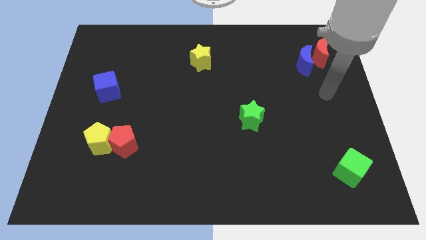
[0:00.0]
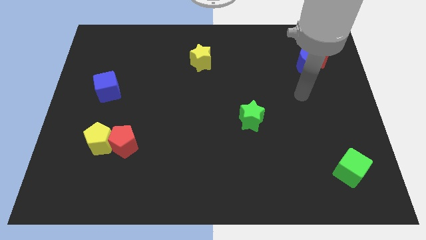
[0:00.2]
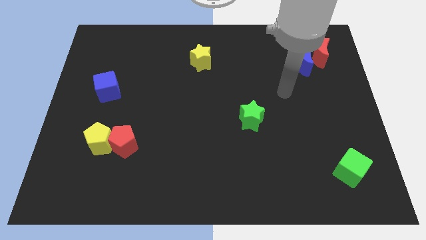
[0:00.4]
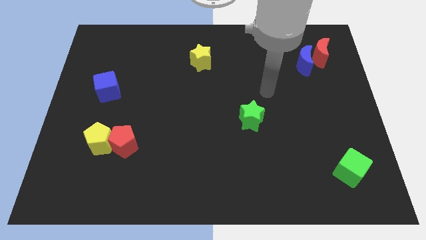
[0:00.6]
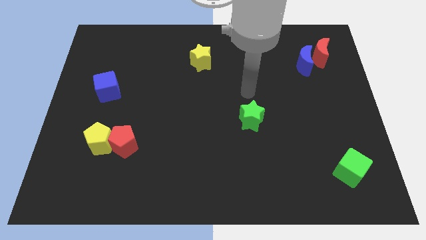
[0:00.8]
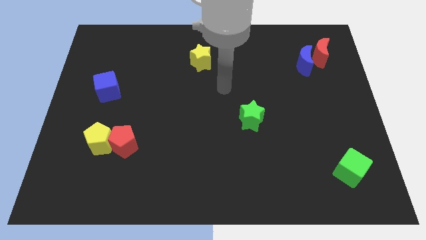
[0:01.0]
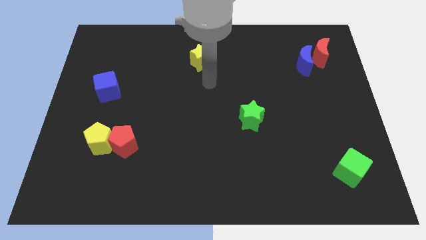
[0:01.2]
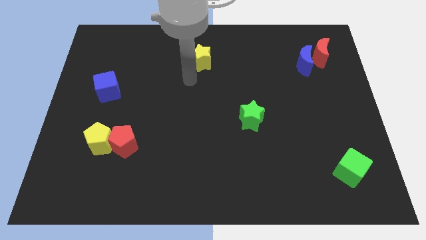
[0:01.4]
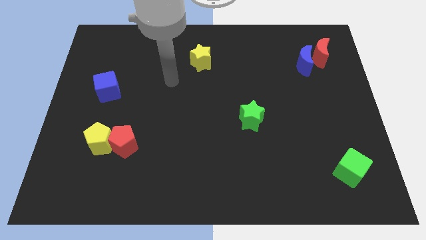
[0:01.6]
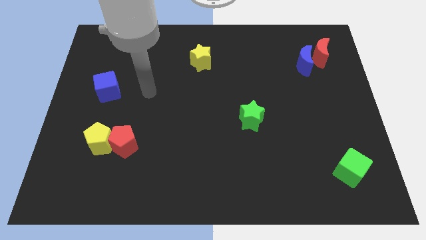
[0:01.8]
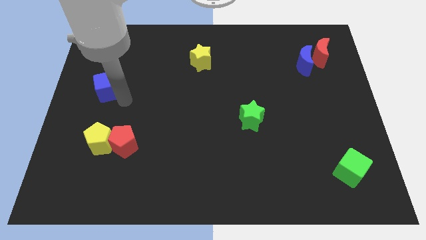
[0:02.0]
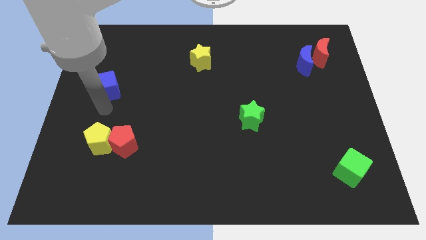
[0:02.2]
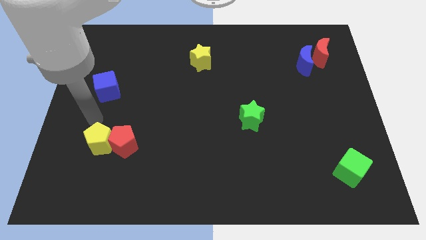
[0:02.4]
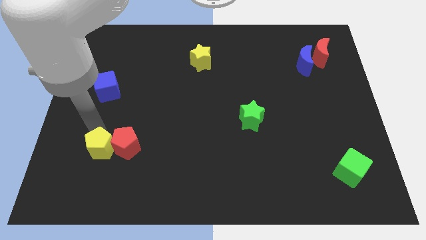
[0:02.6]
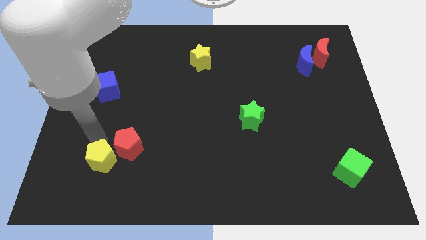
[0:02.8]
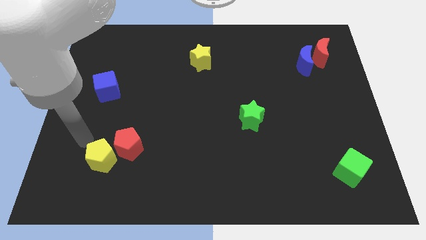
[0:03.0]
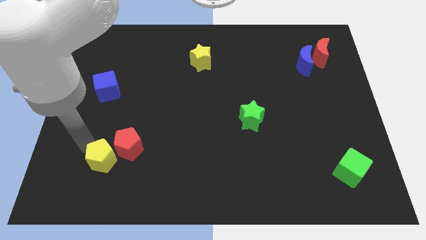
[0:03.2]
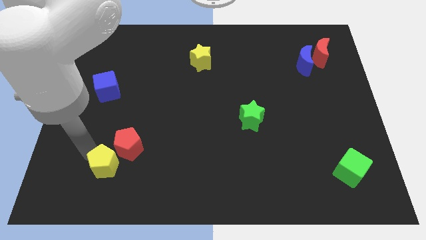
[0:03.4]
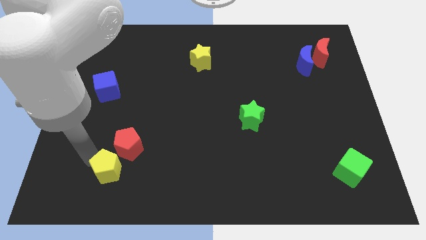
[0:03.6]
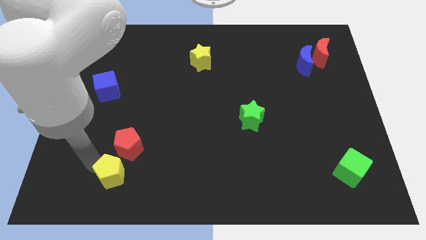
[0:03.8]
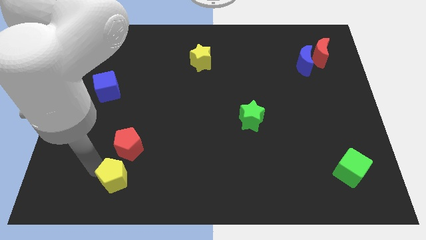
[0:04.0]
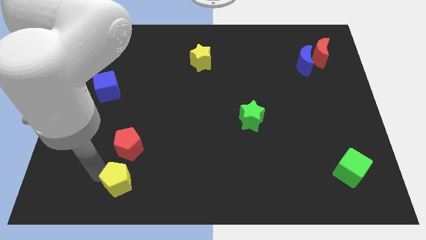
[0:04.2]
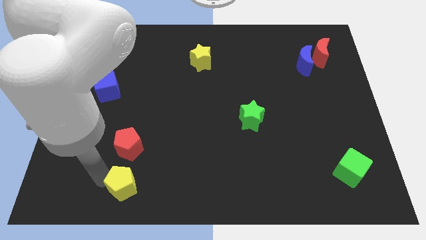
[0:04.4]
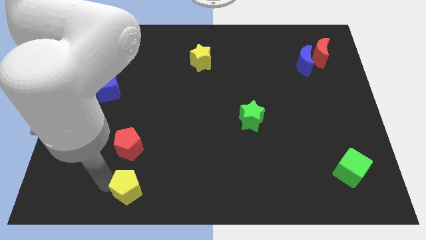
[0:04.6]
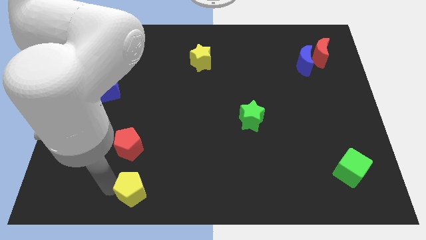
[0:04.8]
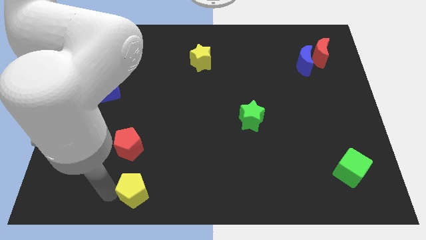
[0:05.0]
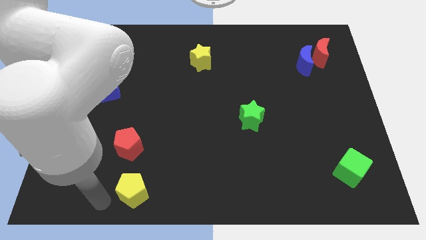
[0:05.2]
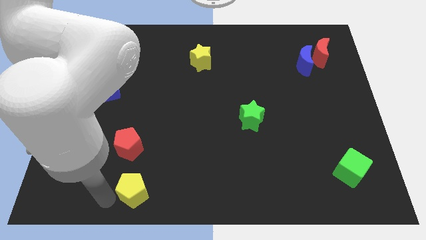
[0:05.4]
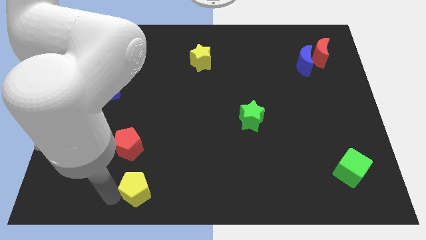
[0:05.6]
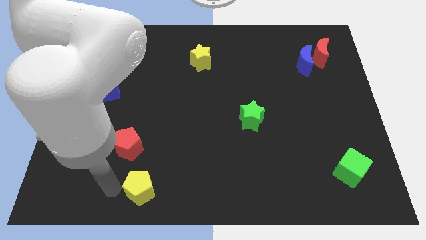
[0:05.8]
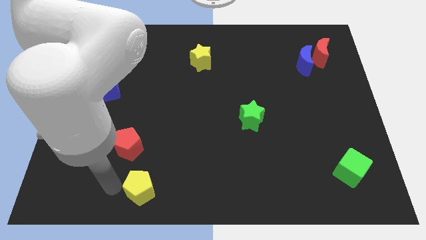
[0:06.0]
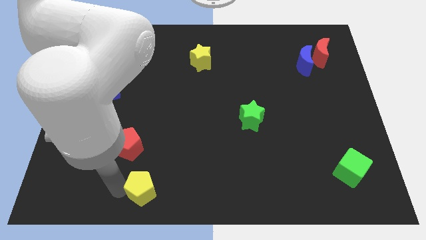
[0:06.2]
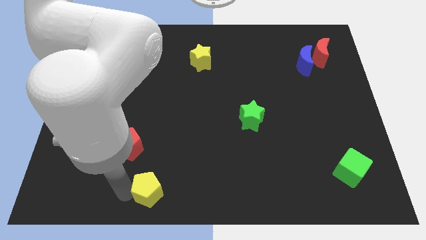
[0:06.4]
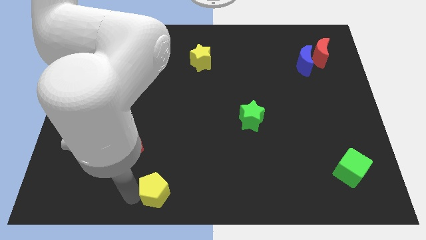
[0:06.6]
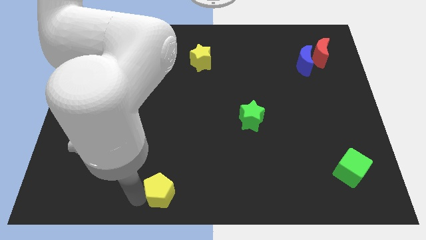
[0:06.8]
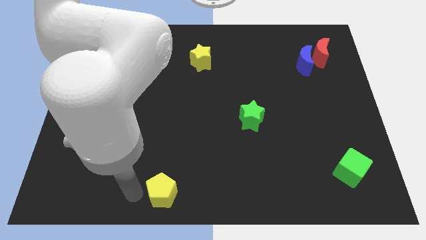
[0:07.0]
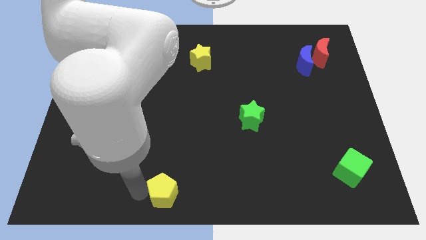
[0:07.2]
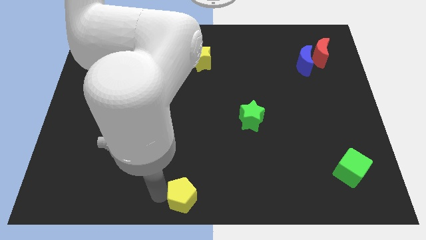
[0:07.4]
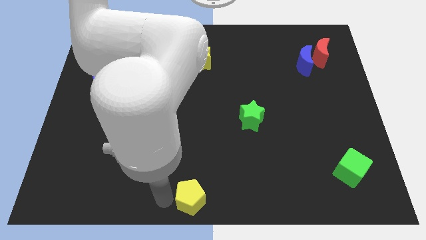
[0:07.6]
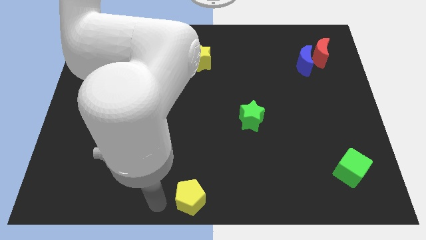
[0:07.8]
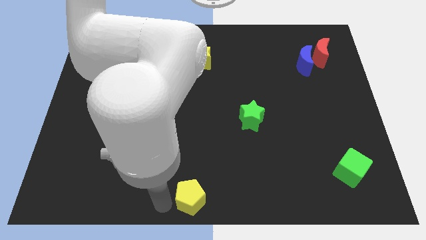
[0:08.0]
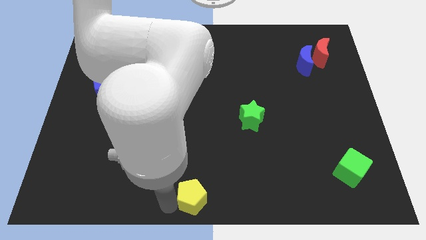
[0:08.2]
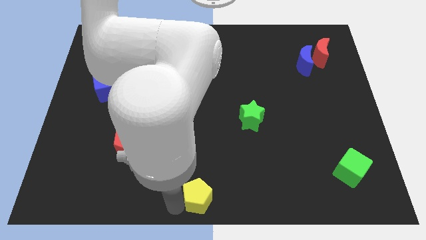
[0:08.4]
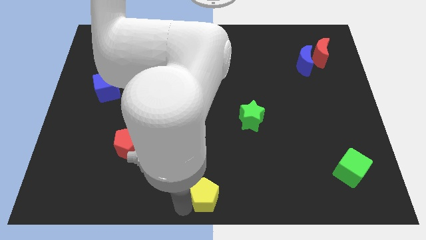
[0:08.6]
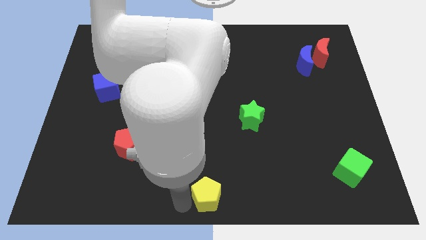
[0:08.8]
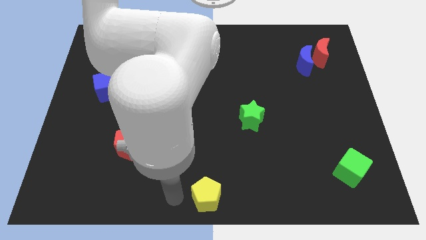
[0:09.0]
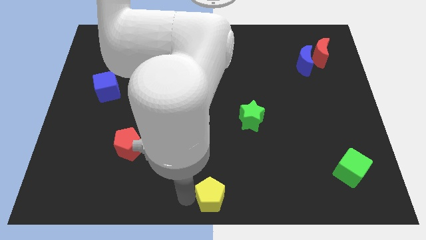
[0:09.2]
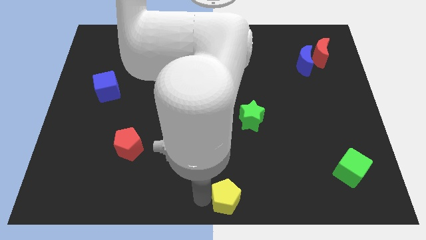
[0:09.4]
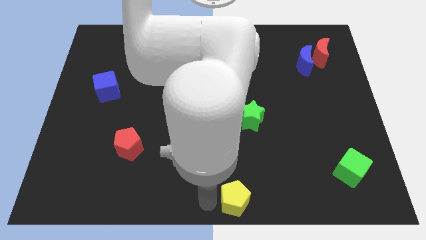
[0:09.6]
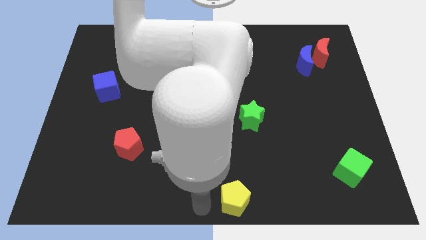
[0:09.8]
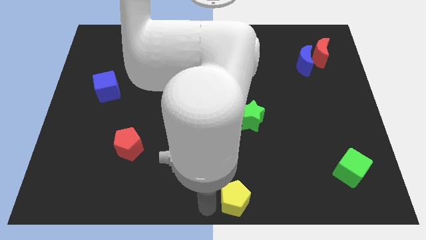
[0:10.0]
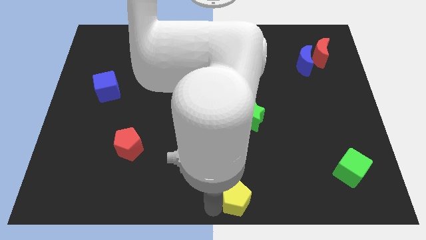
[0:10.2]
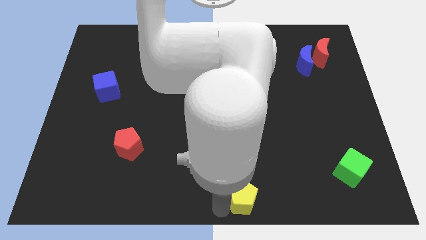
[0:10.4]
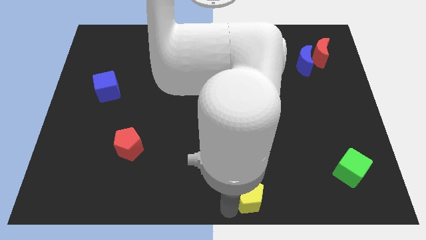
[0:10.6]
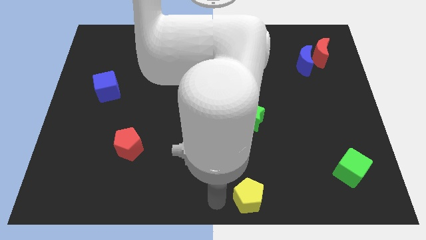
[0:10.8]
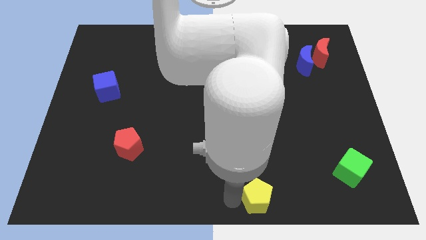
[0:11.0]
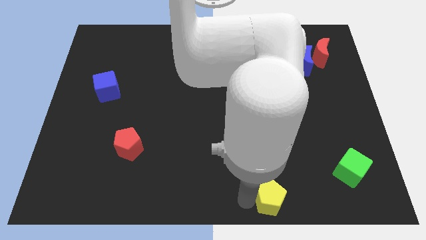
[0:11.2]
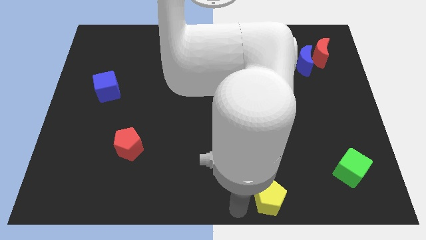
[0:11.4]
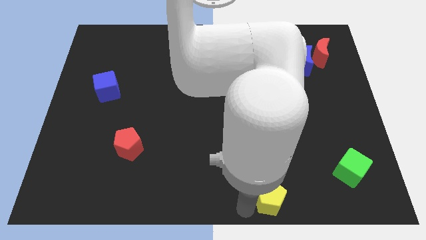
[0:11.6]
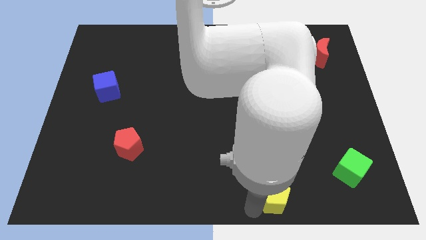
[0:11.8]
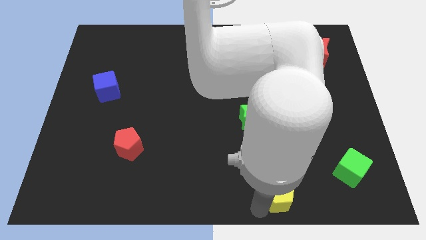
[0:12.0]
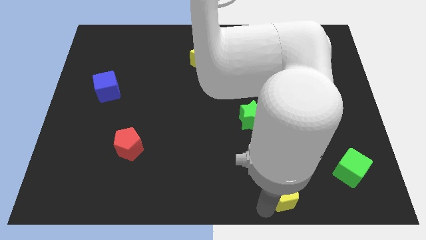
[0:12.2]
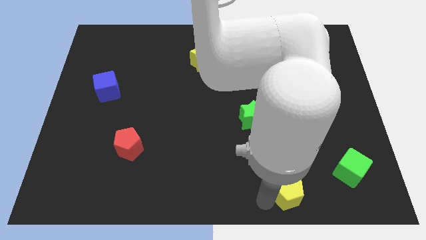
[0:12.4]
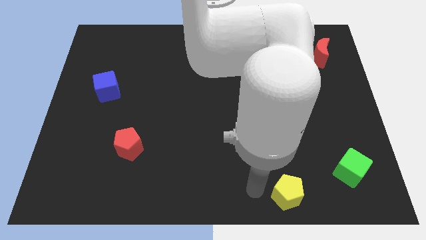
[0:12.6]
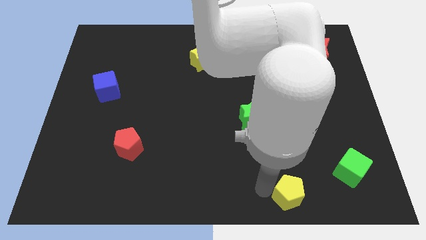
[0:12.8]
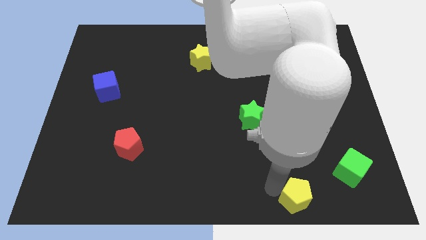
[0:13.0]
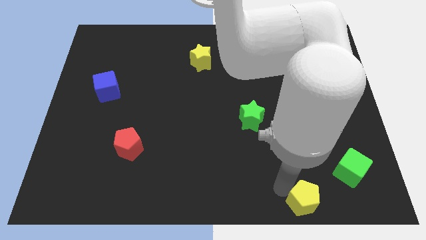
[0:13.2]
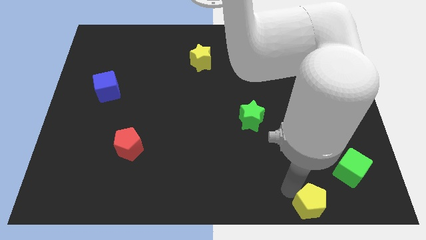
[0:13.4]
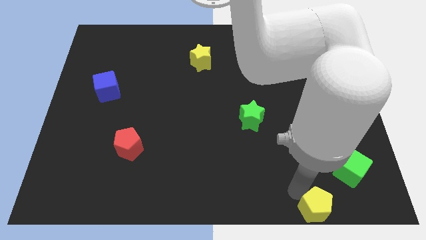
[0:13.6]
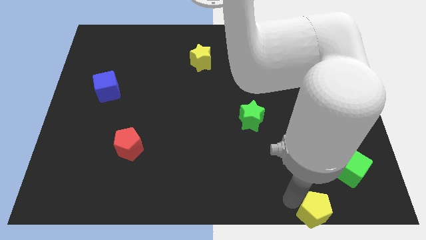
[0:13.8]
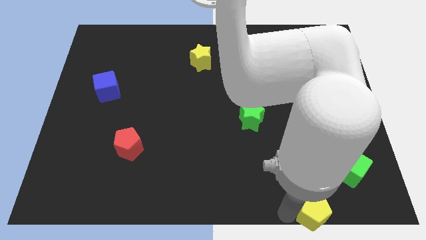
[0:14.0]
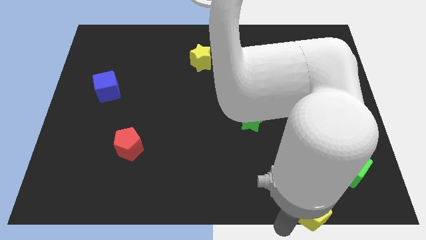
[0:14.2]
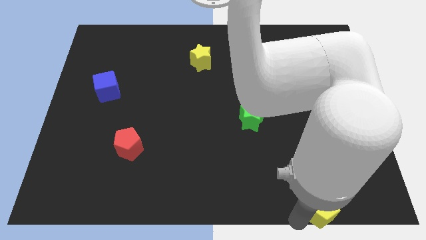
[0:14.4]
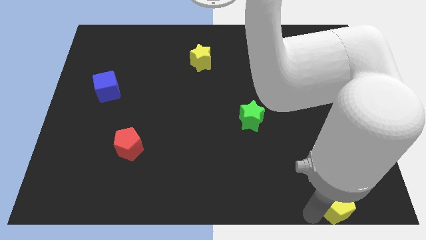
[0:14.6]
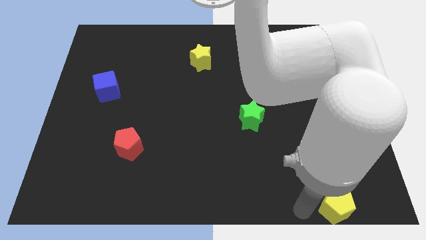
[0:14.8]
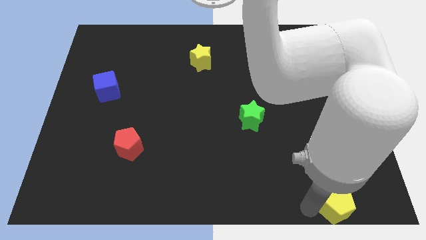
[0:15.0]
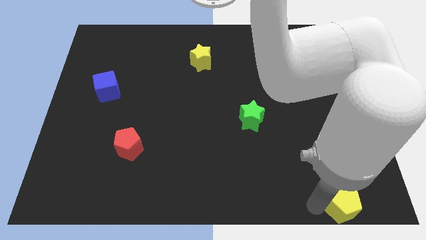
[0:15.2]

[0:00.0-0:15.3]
push the yellow pentagon to the bottom right
